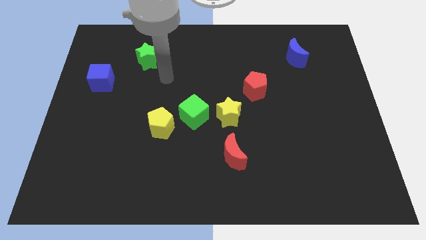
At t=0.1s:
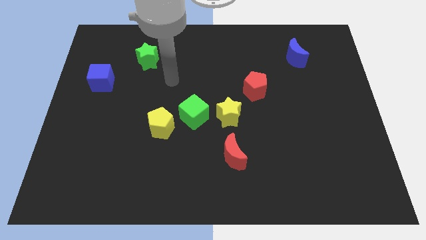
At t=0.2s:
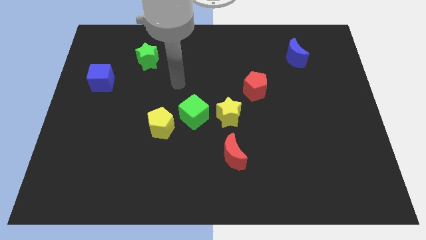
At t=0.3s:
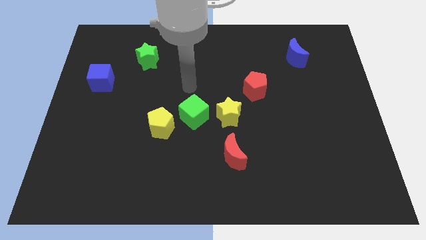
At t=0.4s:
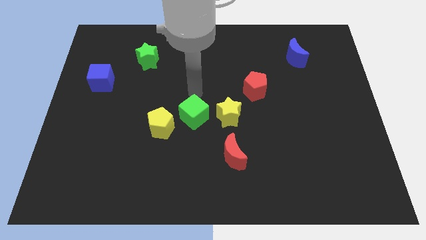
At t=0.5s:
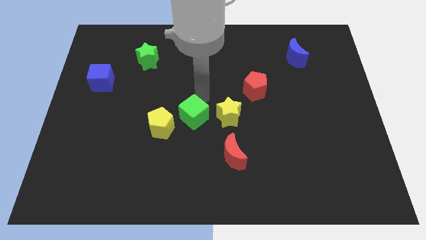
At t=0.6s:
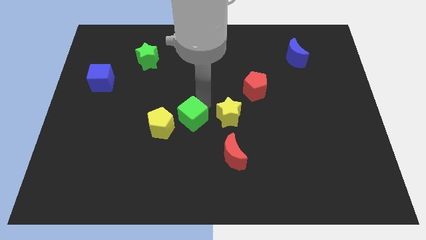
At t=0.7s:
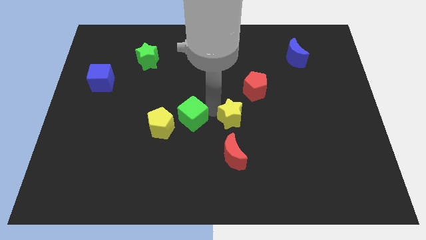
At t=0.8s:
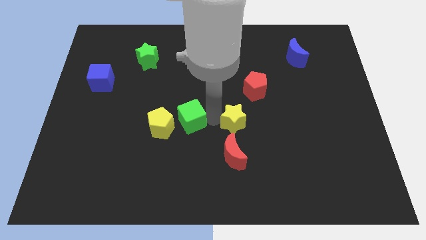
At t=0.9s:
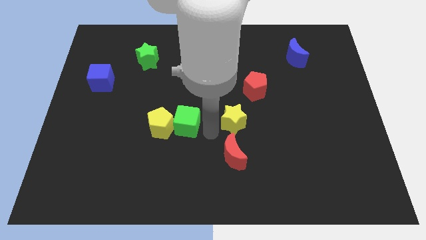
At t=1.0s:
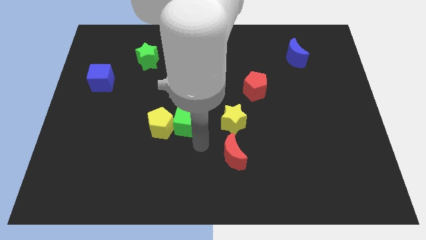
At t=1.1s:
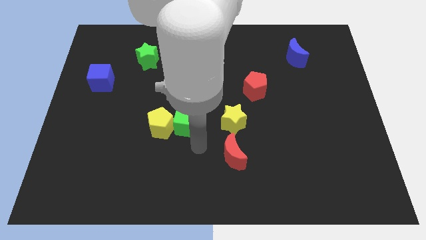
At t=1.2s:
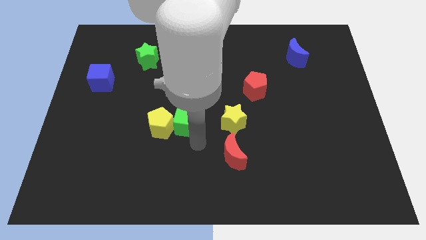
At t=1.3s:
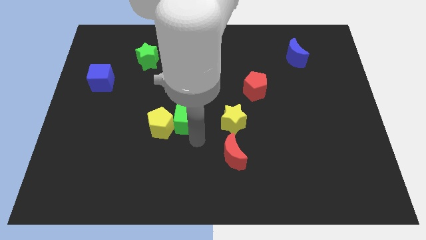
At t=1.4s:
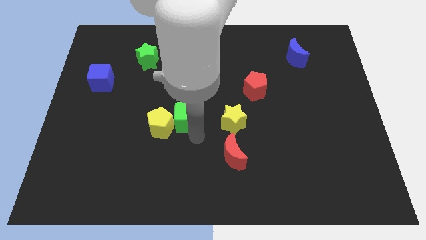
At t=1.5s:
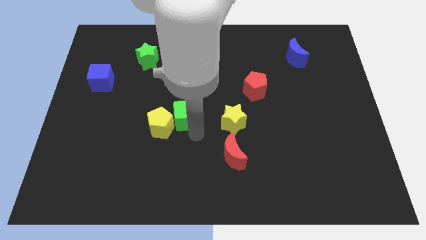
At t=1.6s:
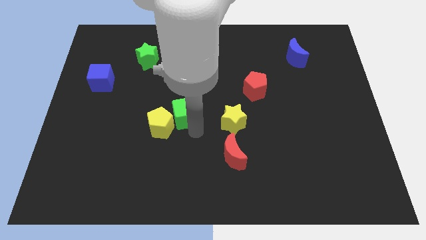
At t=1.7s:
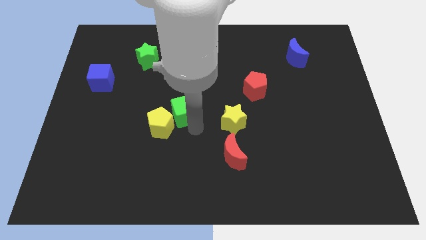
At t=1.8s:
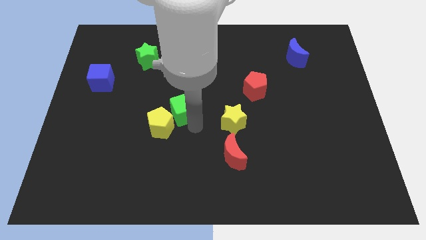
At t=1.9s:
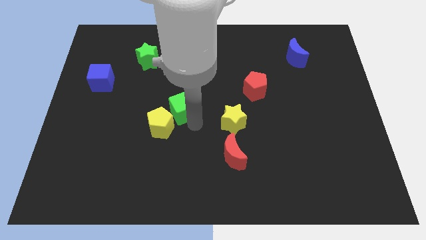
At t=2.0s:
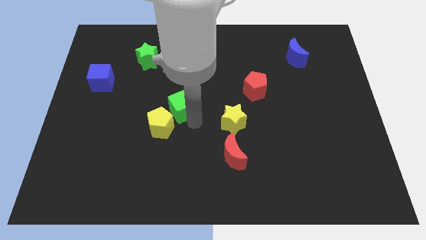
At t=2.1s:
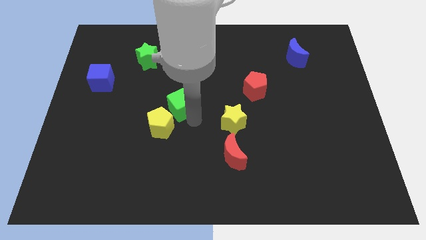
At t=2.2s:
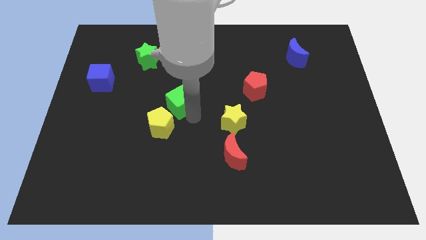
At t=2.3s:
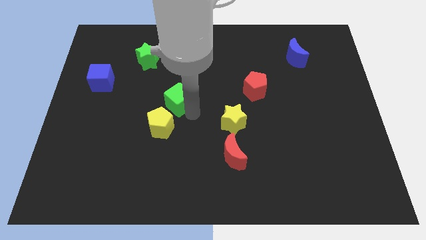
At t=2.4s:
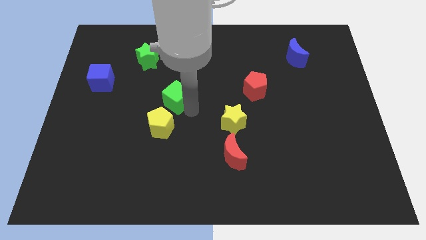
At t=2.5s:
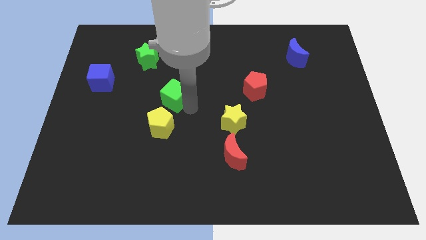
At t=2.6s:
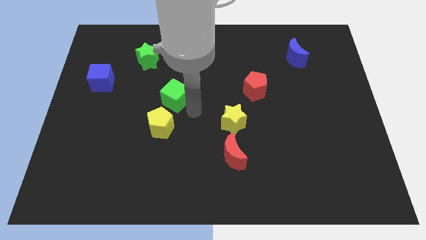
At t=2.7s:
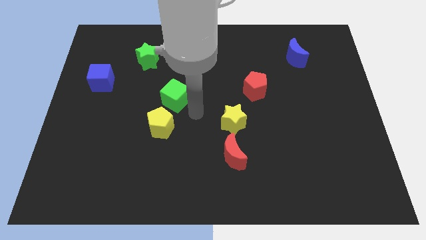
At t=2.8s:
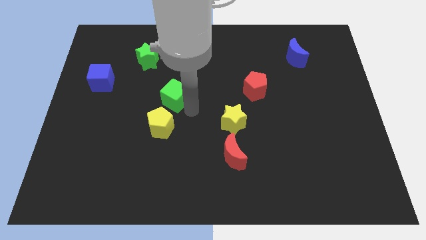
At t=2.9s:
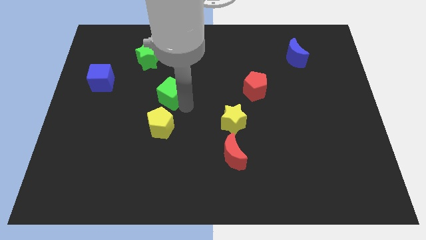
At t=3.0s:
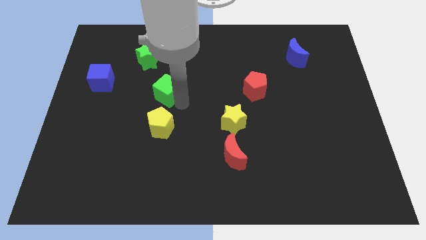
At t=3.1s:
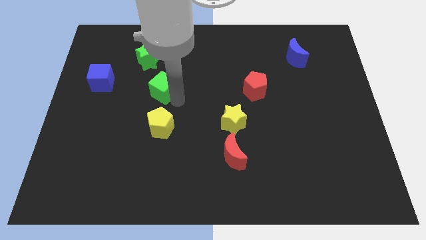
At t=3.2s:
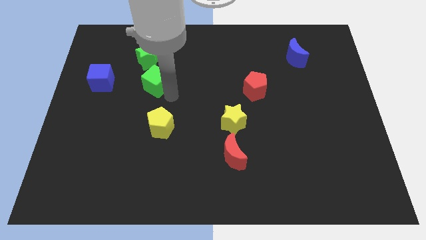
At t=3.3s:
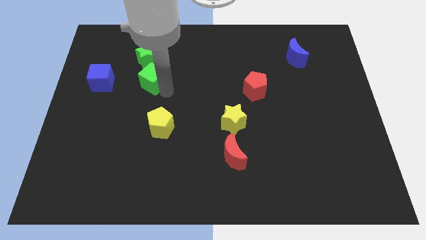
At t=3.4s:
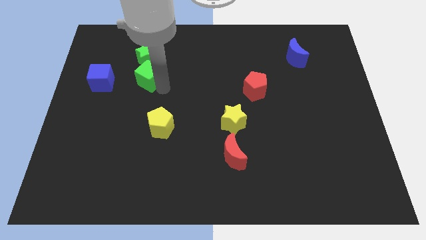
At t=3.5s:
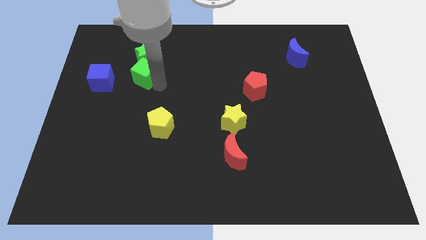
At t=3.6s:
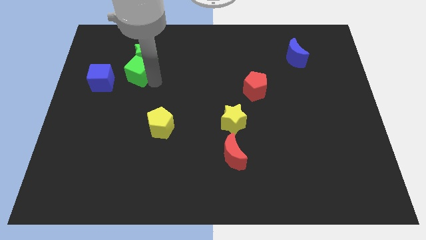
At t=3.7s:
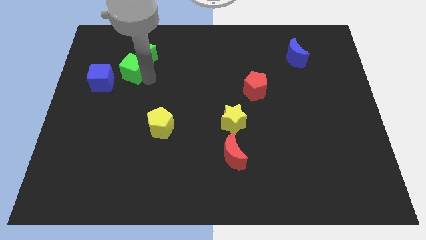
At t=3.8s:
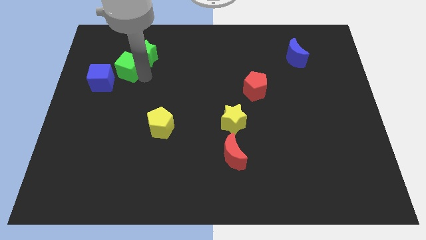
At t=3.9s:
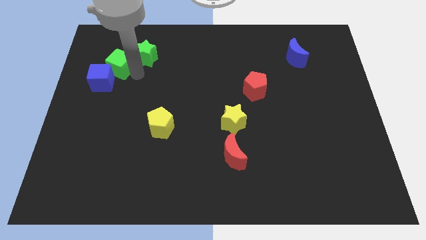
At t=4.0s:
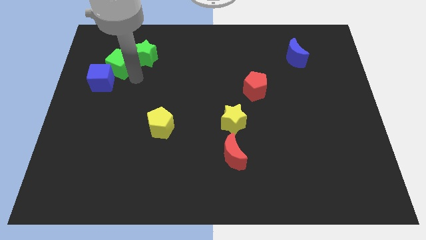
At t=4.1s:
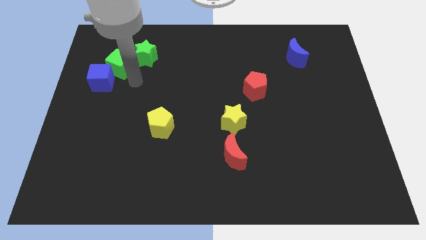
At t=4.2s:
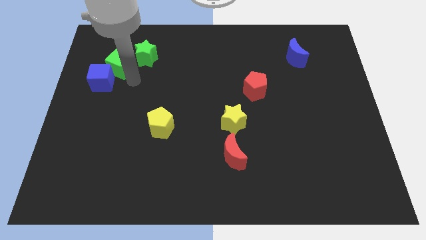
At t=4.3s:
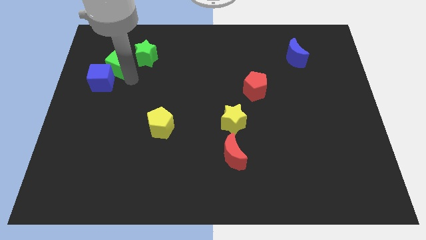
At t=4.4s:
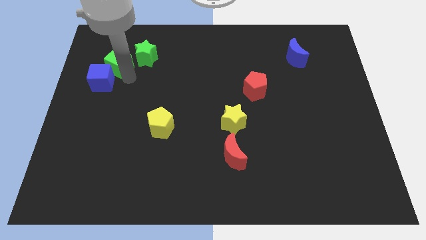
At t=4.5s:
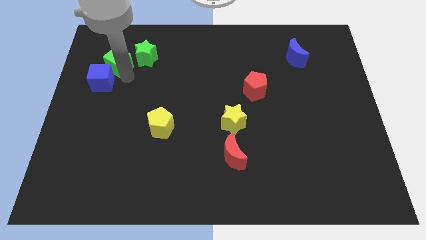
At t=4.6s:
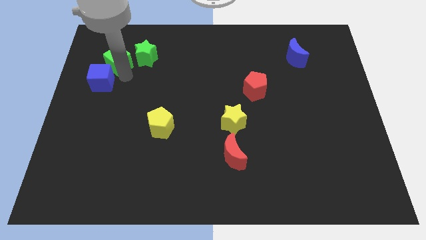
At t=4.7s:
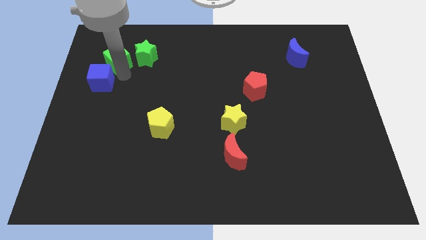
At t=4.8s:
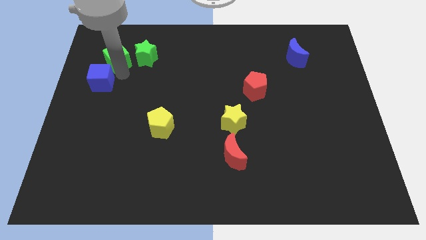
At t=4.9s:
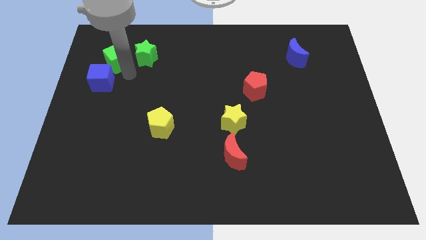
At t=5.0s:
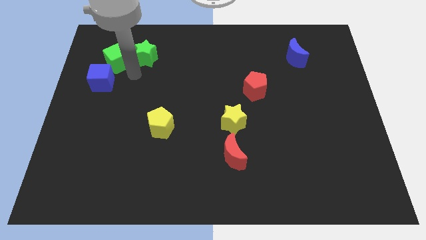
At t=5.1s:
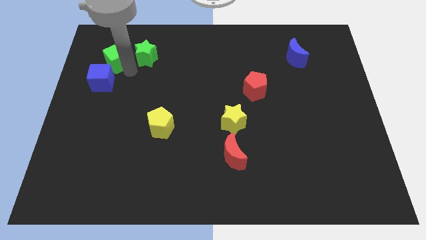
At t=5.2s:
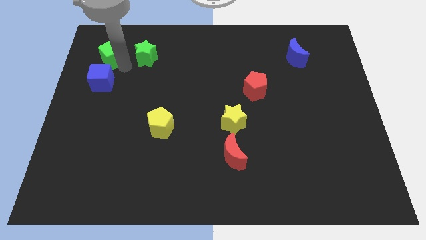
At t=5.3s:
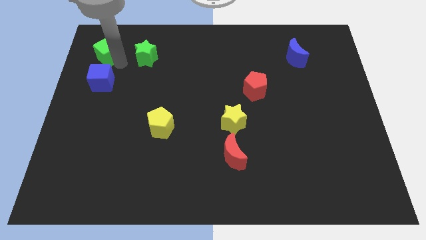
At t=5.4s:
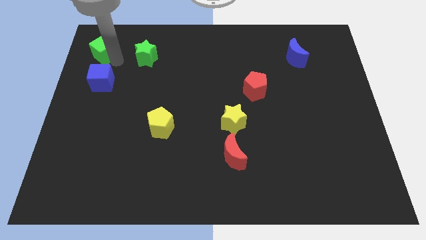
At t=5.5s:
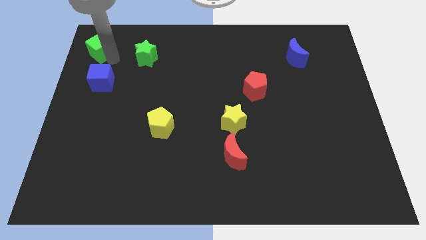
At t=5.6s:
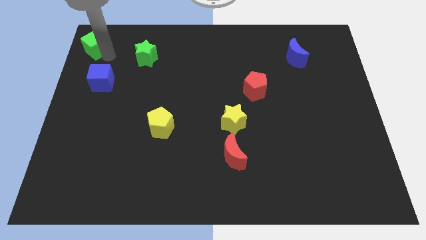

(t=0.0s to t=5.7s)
push the green cube to the top left corner

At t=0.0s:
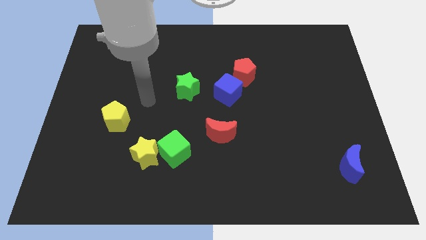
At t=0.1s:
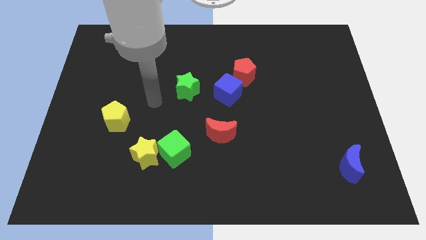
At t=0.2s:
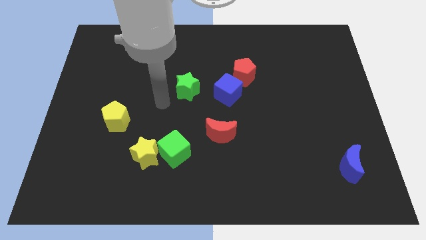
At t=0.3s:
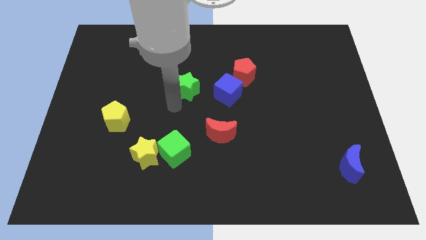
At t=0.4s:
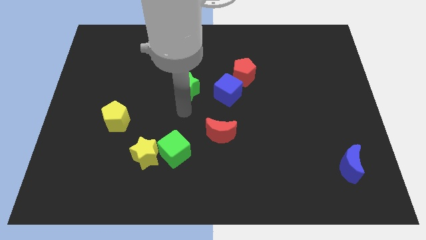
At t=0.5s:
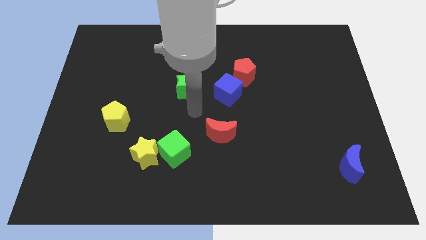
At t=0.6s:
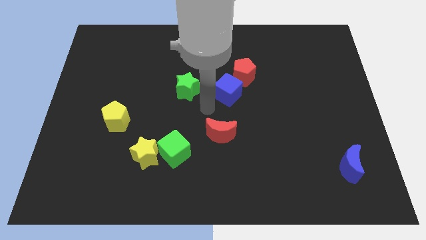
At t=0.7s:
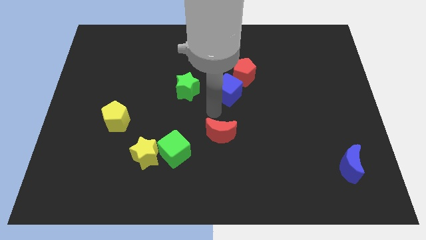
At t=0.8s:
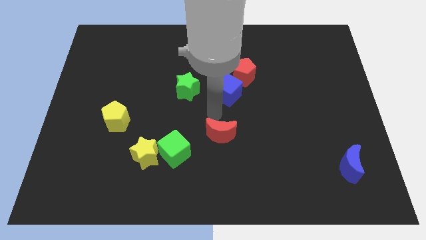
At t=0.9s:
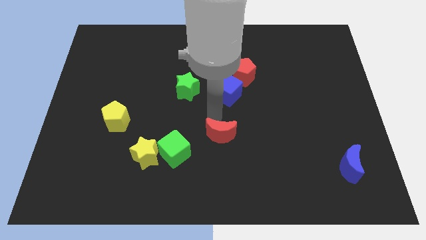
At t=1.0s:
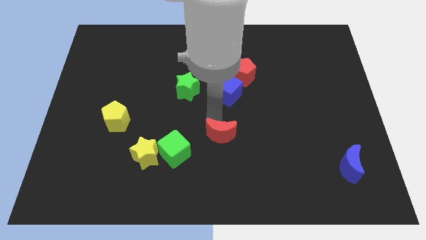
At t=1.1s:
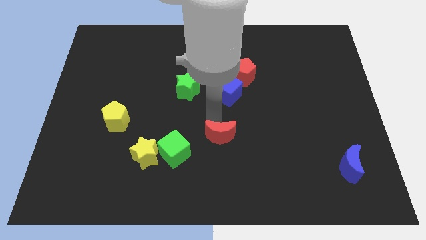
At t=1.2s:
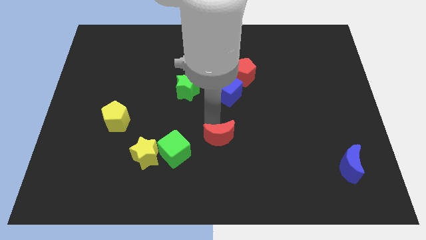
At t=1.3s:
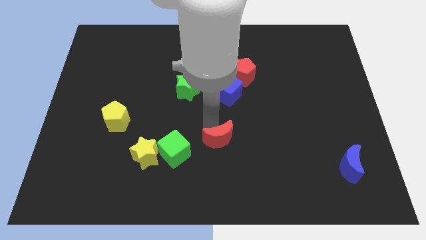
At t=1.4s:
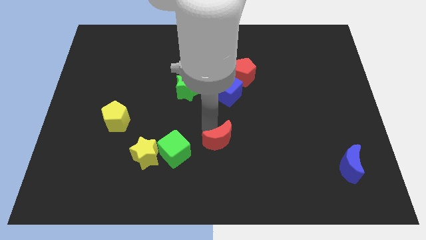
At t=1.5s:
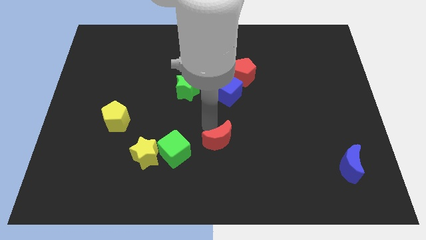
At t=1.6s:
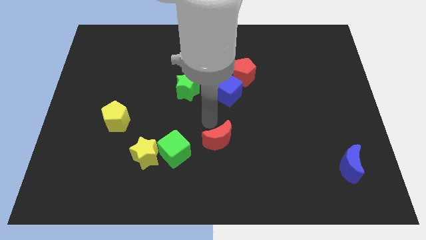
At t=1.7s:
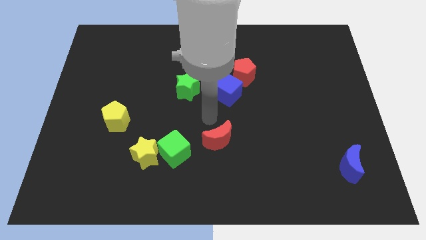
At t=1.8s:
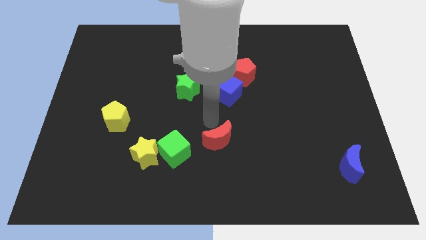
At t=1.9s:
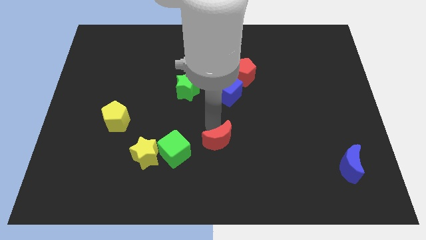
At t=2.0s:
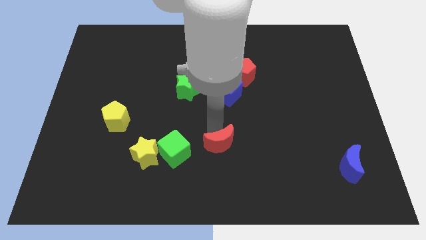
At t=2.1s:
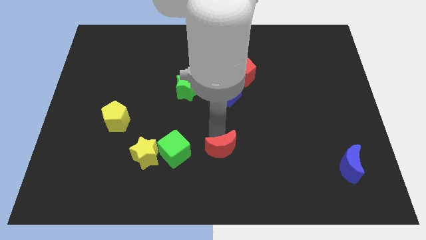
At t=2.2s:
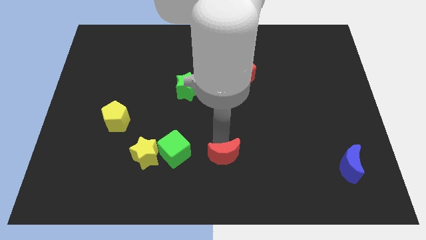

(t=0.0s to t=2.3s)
move the red moon to the bottom
